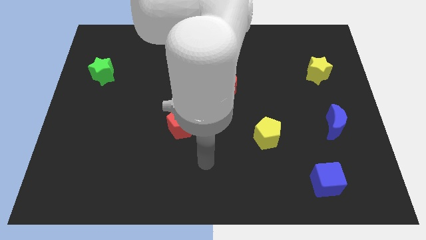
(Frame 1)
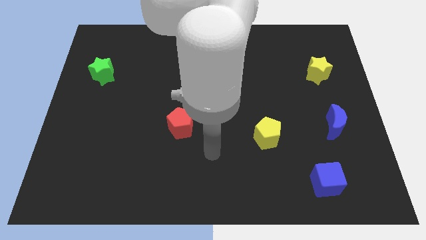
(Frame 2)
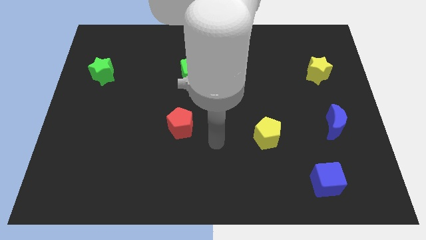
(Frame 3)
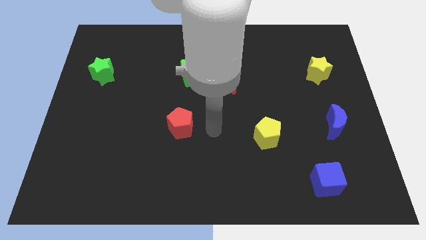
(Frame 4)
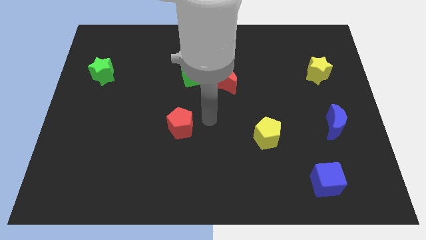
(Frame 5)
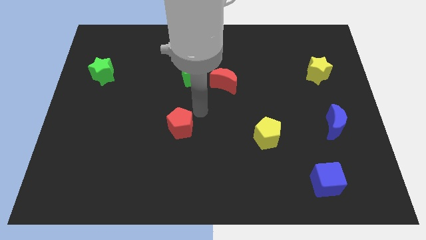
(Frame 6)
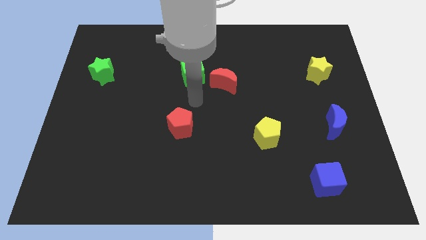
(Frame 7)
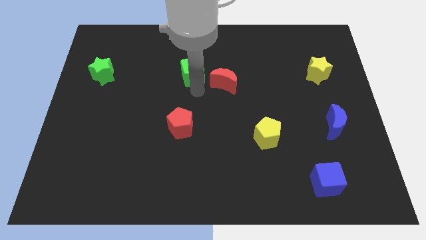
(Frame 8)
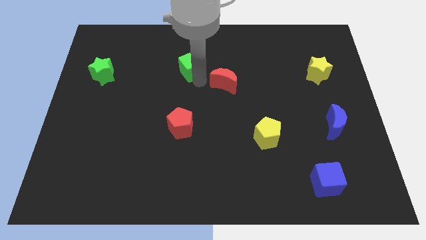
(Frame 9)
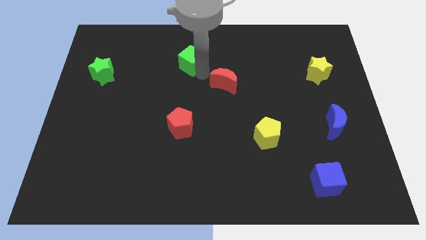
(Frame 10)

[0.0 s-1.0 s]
move the red moon away from the green cube

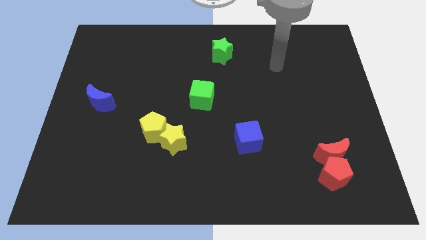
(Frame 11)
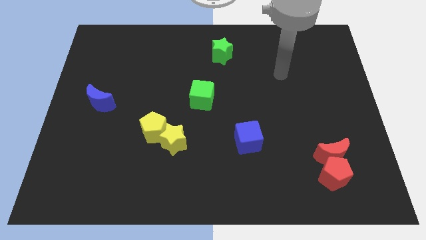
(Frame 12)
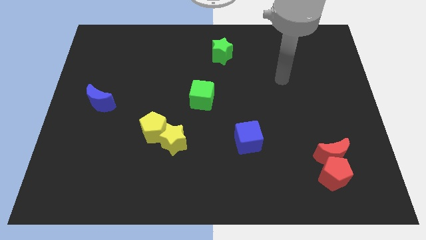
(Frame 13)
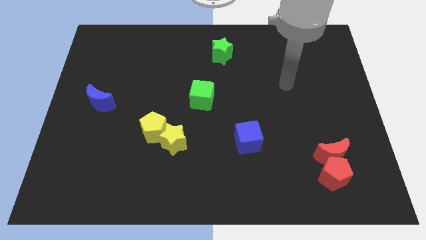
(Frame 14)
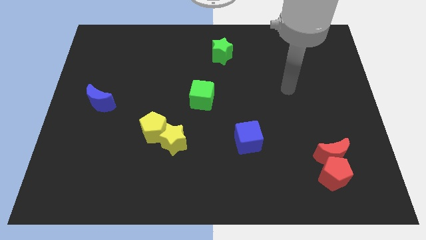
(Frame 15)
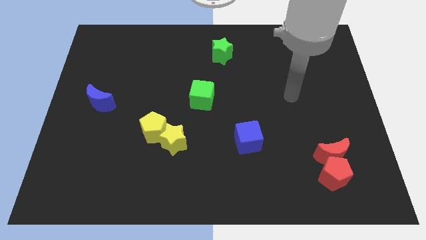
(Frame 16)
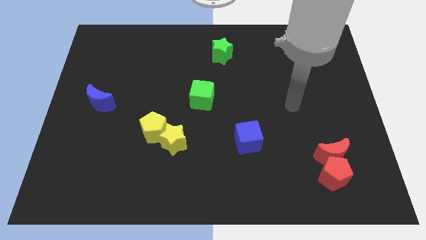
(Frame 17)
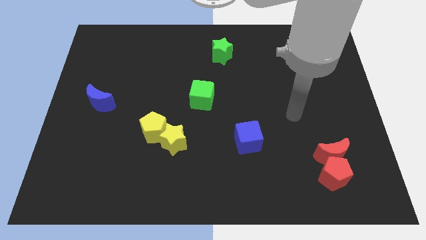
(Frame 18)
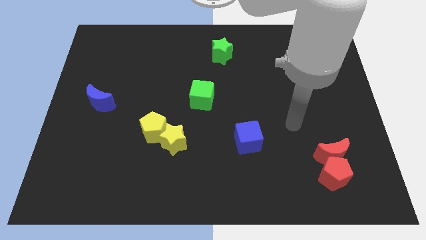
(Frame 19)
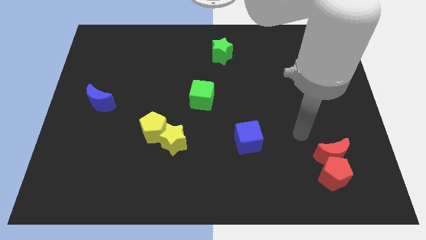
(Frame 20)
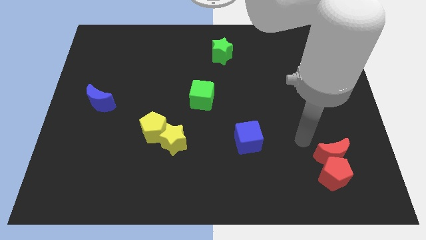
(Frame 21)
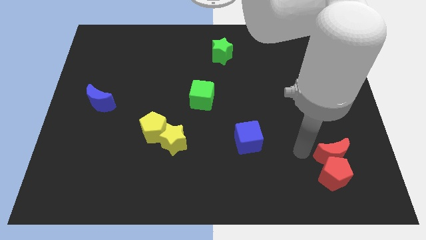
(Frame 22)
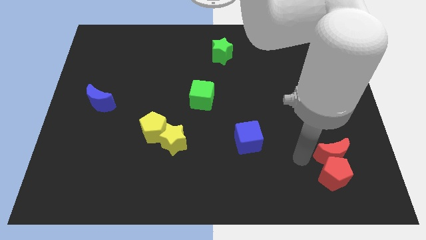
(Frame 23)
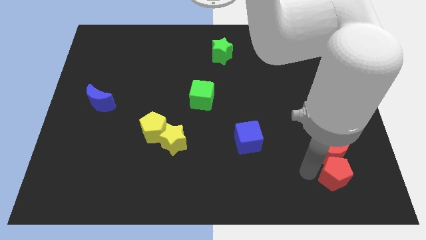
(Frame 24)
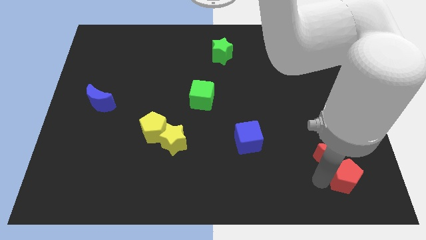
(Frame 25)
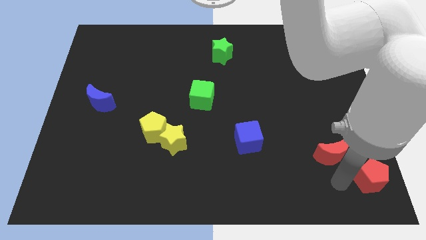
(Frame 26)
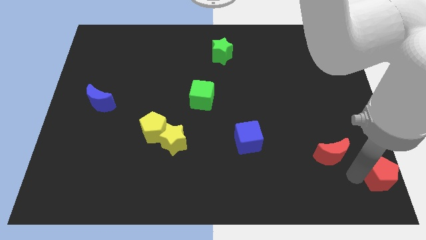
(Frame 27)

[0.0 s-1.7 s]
move the red moon away from the red pentagon

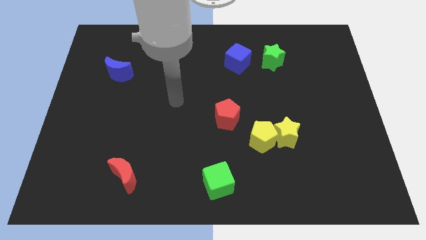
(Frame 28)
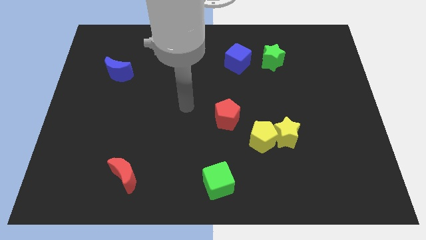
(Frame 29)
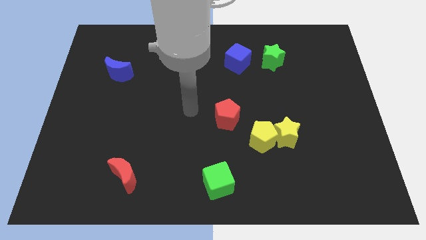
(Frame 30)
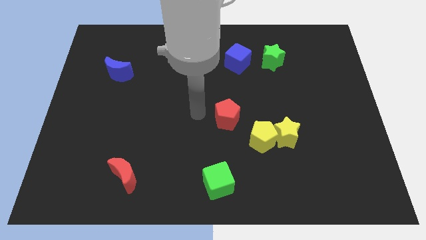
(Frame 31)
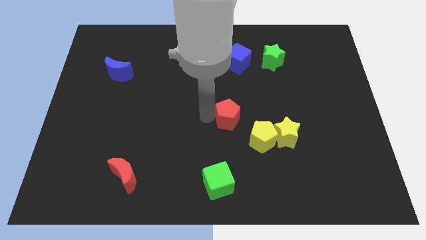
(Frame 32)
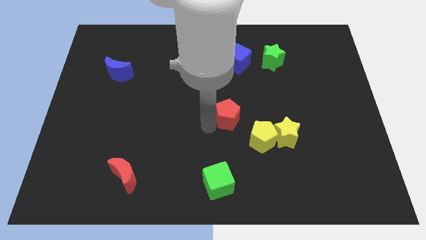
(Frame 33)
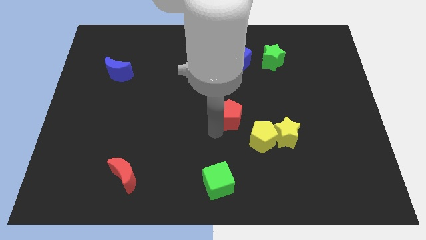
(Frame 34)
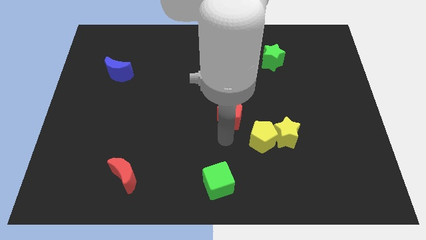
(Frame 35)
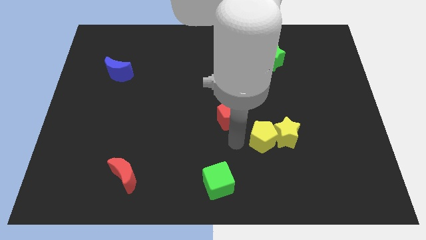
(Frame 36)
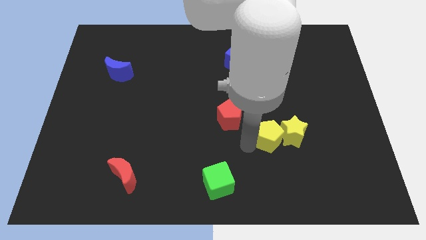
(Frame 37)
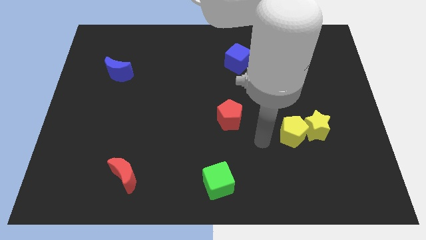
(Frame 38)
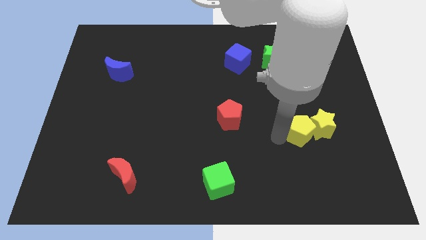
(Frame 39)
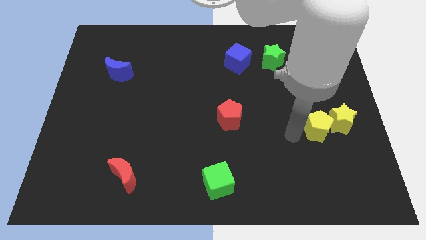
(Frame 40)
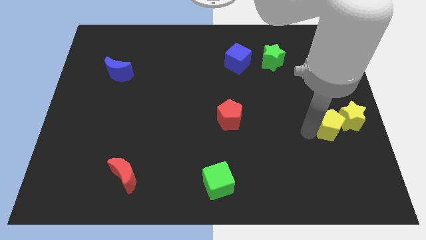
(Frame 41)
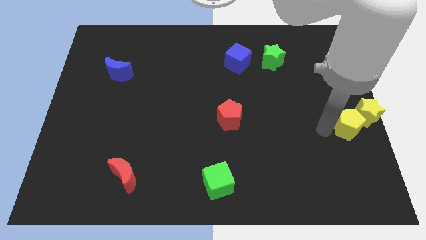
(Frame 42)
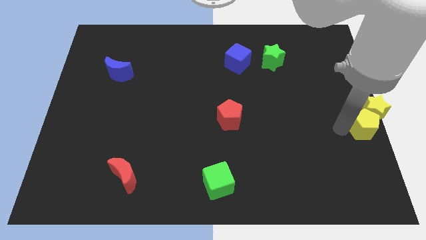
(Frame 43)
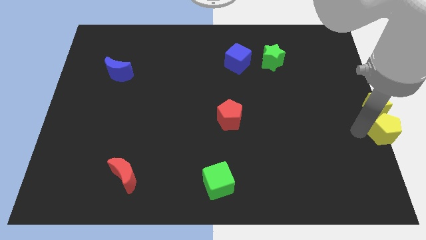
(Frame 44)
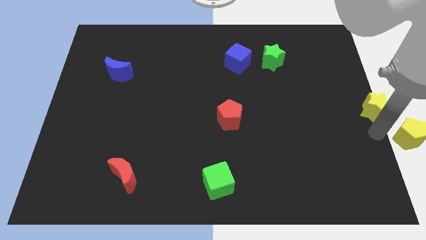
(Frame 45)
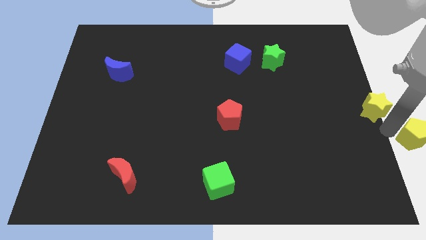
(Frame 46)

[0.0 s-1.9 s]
move the yellow star away from the yellow pentagon

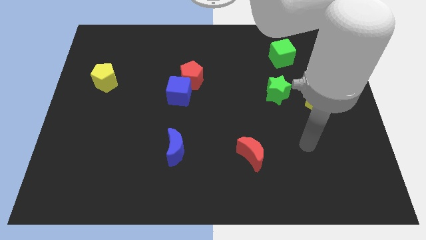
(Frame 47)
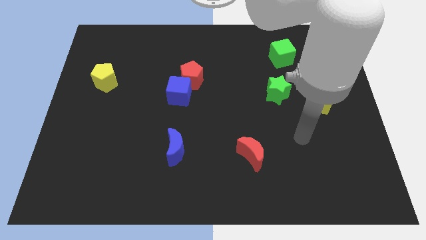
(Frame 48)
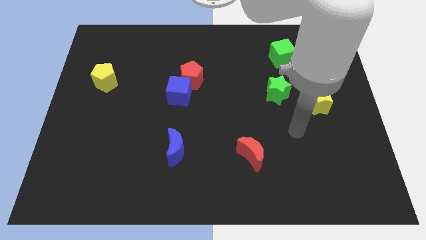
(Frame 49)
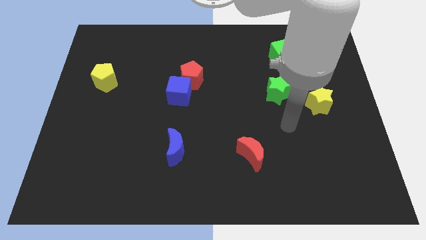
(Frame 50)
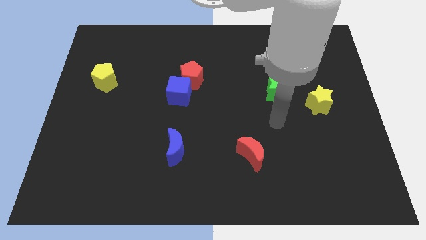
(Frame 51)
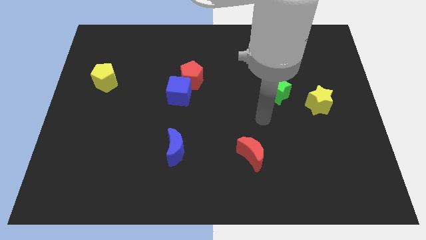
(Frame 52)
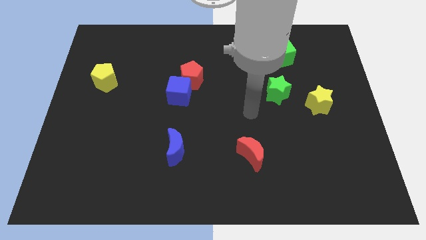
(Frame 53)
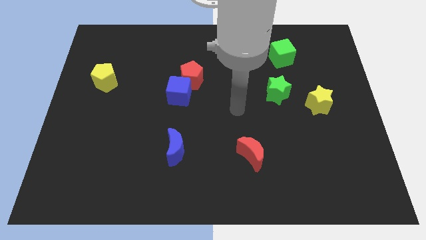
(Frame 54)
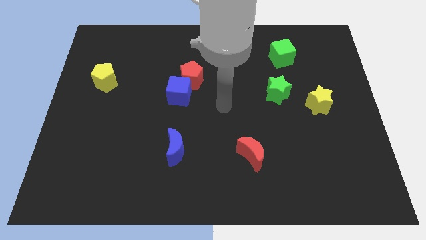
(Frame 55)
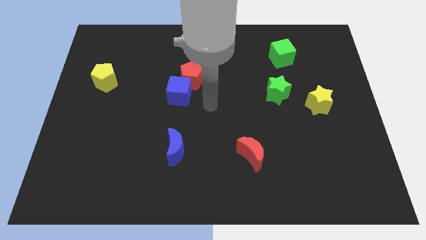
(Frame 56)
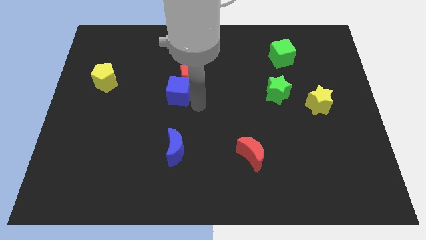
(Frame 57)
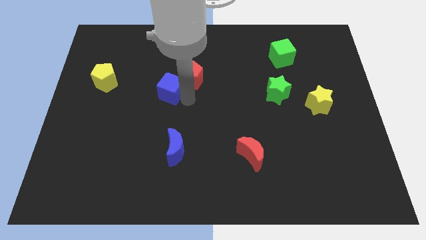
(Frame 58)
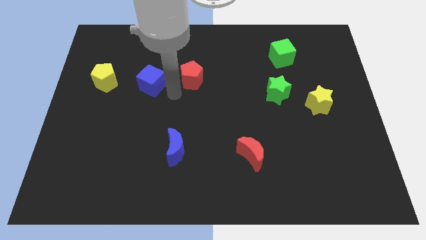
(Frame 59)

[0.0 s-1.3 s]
move the red pentagon away from the blue cube

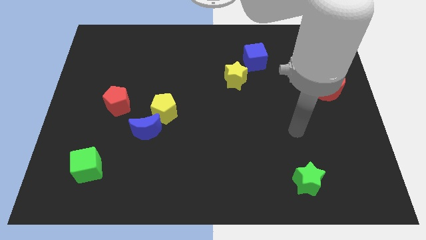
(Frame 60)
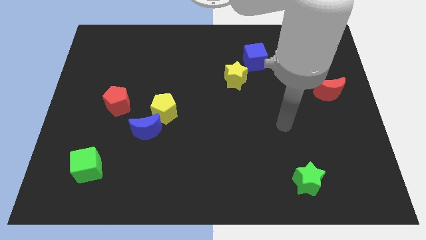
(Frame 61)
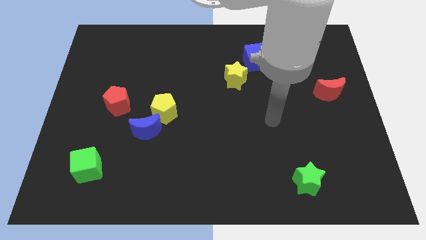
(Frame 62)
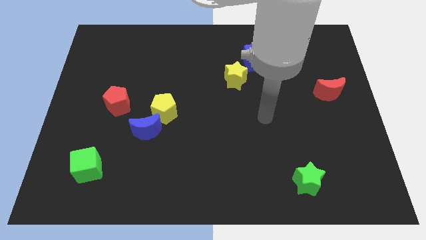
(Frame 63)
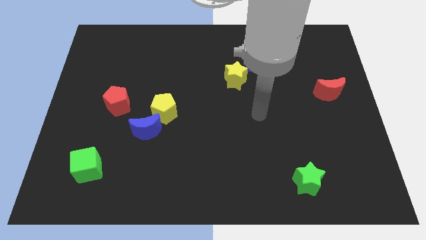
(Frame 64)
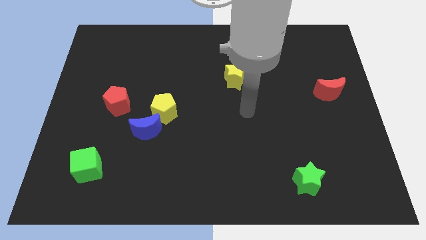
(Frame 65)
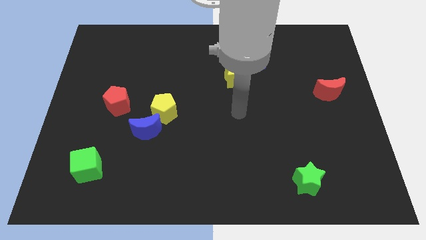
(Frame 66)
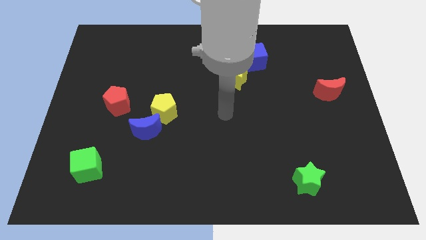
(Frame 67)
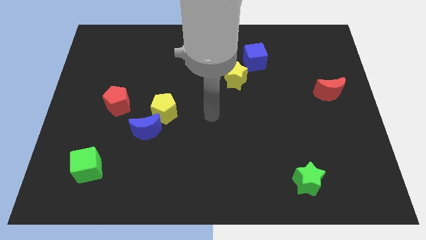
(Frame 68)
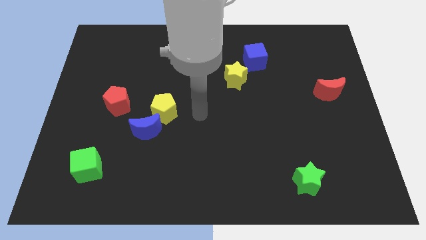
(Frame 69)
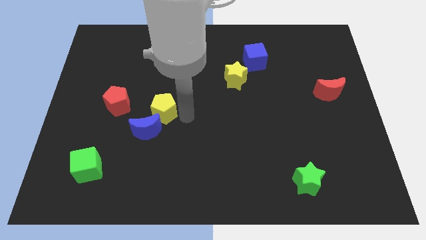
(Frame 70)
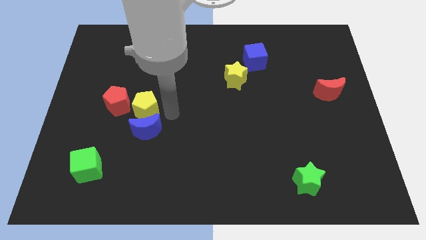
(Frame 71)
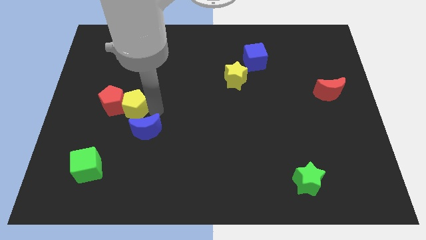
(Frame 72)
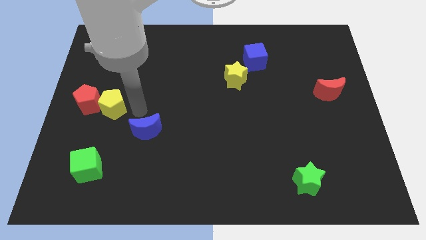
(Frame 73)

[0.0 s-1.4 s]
separate the blue moon from the yellow pentagon

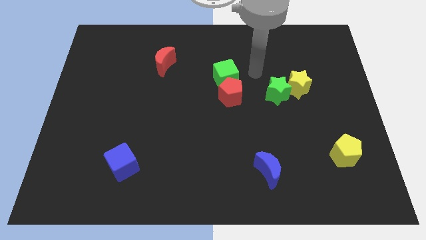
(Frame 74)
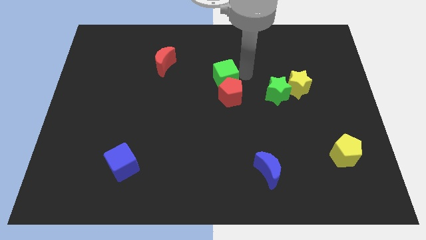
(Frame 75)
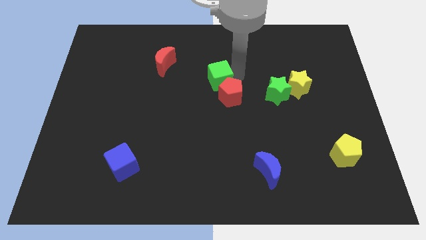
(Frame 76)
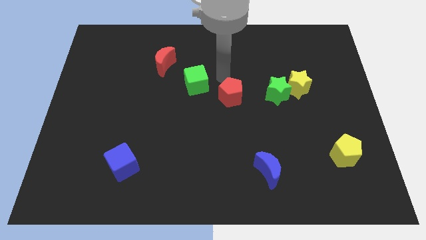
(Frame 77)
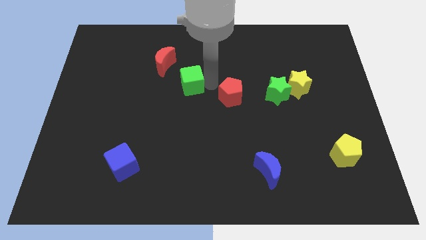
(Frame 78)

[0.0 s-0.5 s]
move the red pentagon away from the green cube

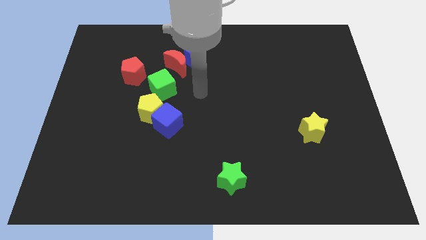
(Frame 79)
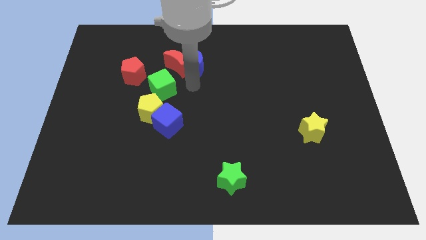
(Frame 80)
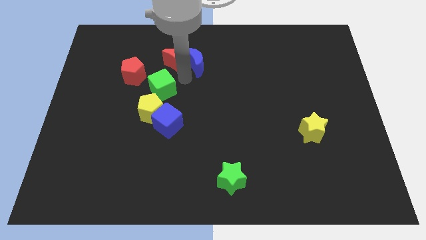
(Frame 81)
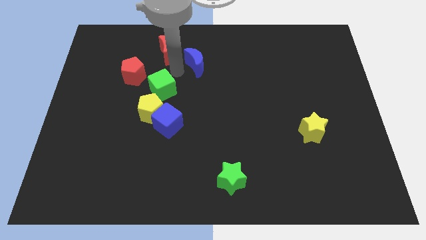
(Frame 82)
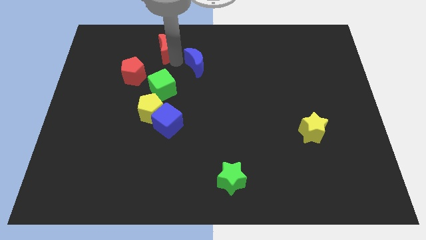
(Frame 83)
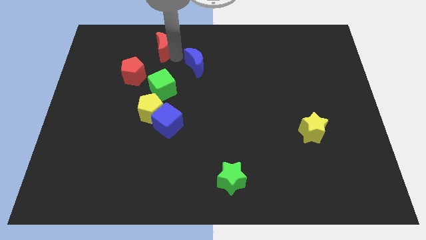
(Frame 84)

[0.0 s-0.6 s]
move the blue moon away from the red moon

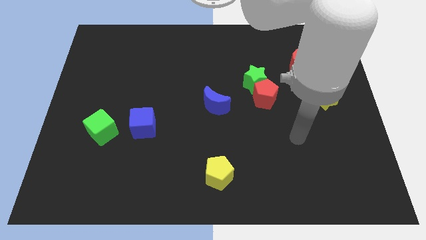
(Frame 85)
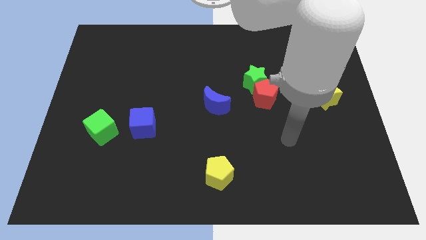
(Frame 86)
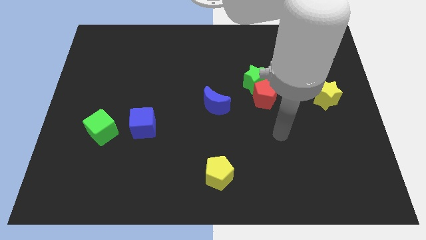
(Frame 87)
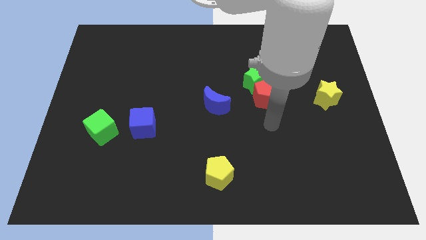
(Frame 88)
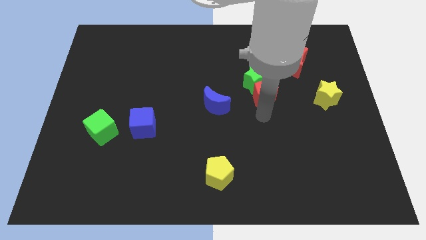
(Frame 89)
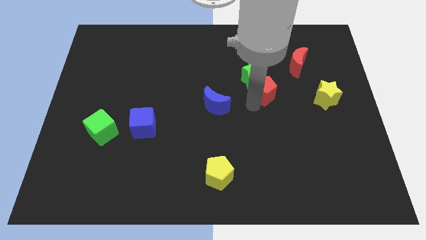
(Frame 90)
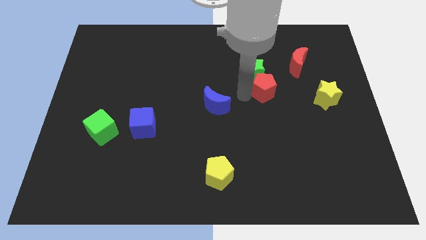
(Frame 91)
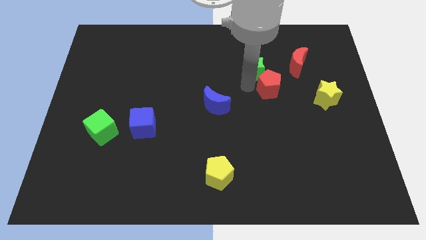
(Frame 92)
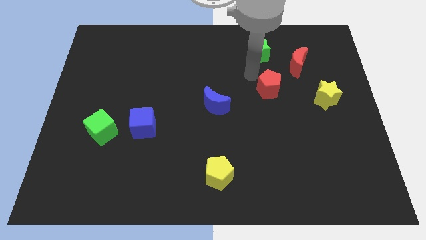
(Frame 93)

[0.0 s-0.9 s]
move the red pentagon away from the green star

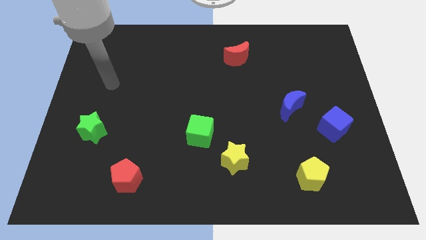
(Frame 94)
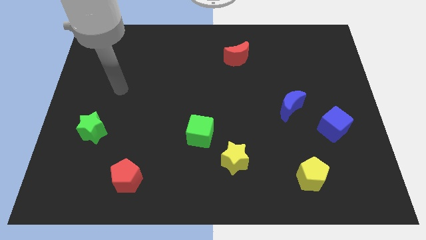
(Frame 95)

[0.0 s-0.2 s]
pull the green cube apart from the yellow star
